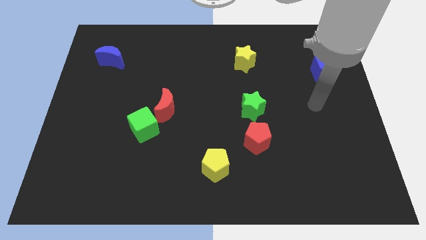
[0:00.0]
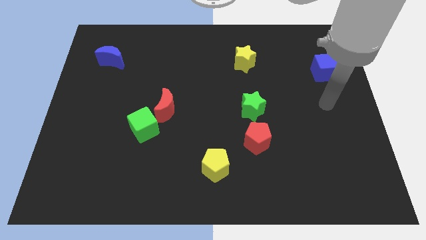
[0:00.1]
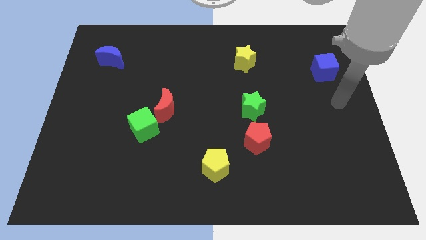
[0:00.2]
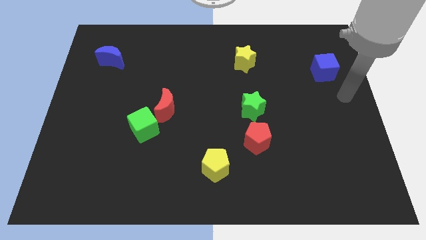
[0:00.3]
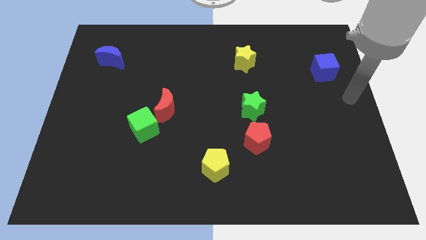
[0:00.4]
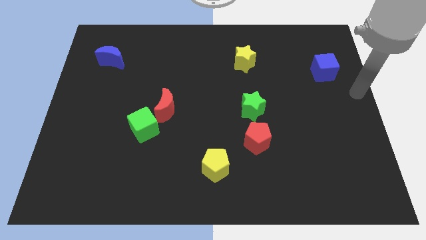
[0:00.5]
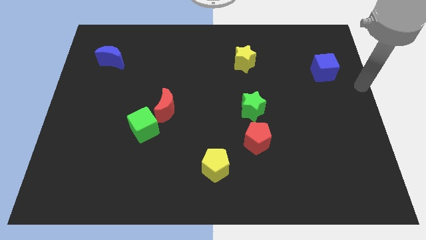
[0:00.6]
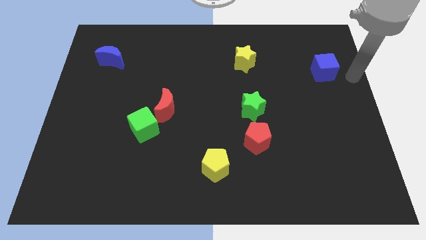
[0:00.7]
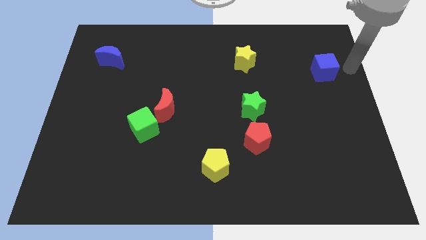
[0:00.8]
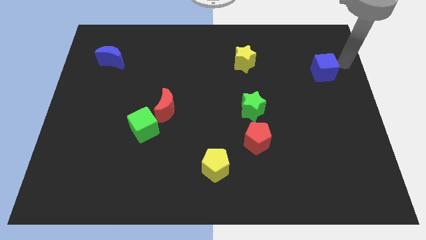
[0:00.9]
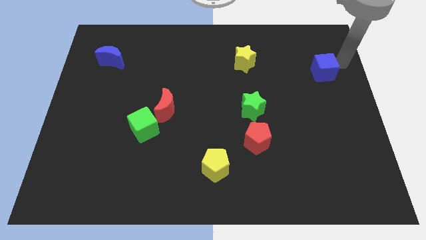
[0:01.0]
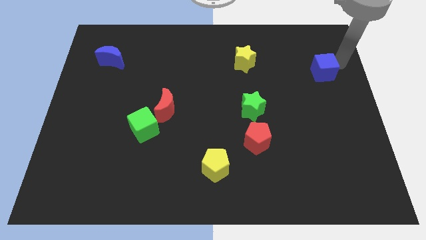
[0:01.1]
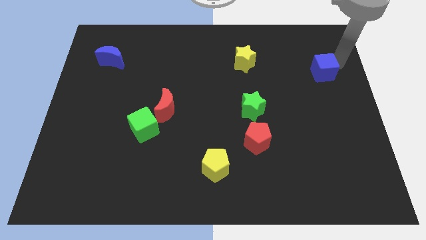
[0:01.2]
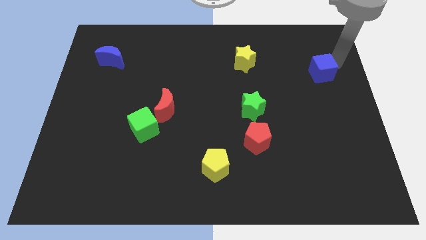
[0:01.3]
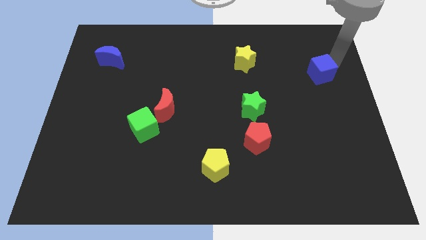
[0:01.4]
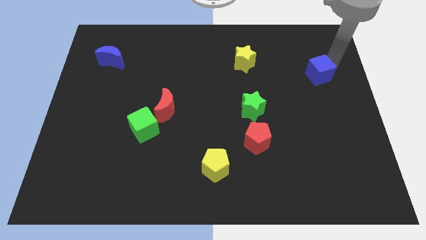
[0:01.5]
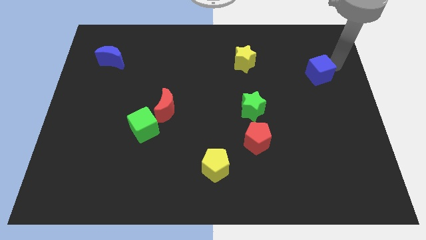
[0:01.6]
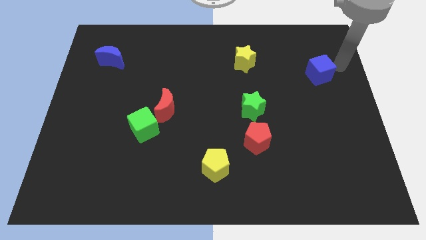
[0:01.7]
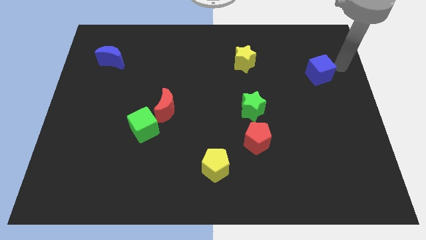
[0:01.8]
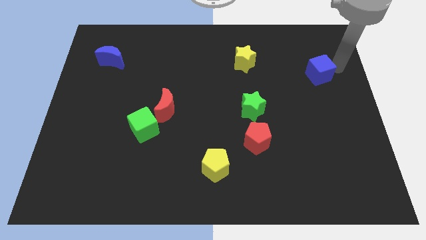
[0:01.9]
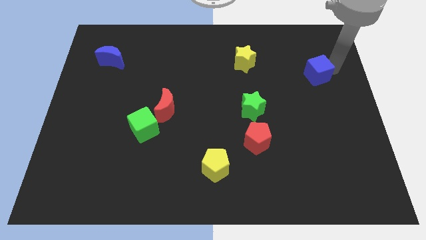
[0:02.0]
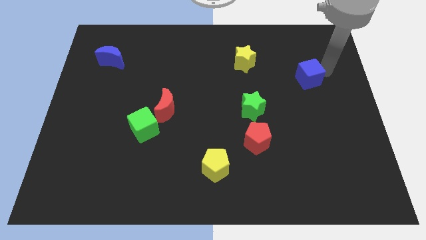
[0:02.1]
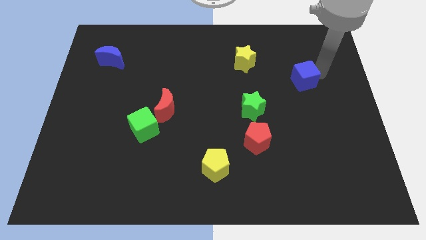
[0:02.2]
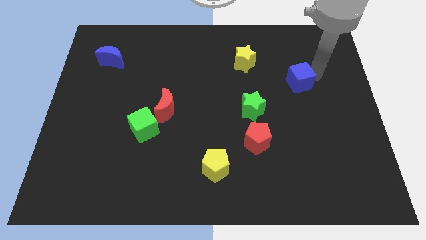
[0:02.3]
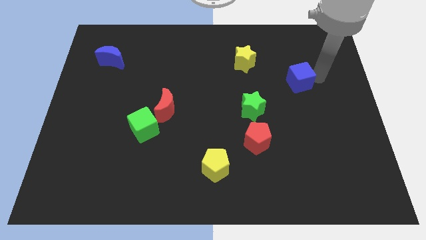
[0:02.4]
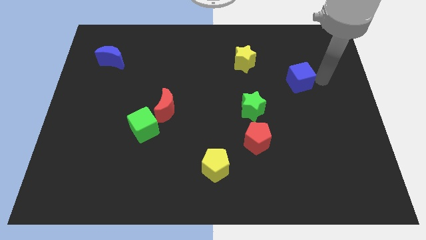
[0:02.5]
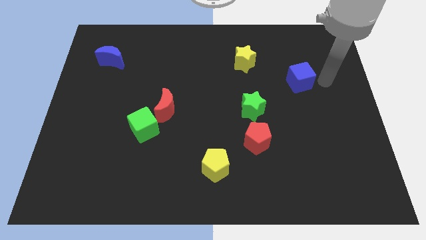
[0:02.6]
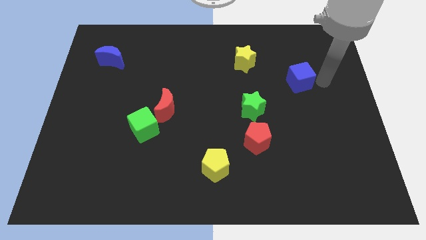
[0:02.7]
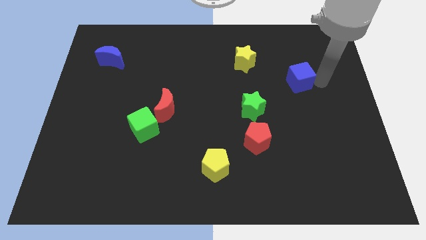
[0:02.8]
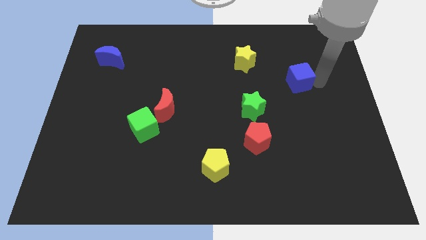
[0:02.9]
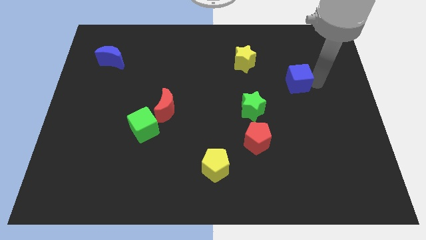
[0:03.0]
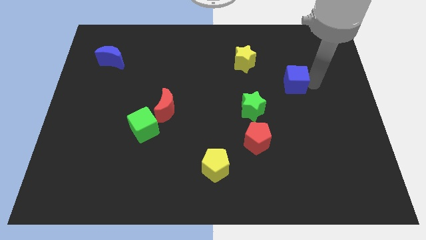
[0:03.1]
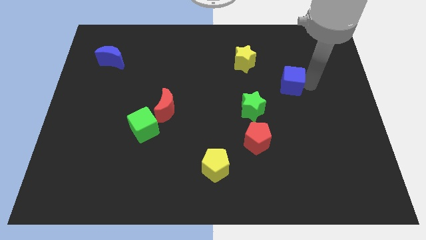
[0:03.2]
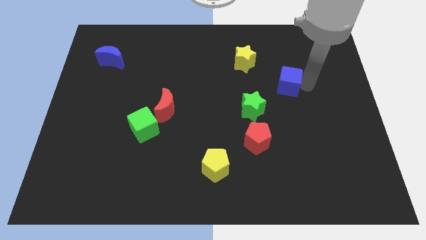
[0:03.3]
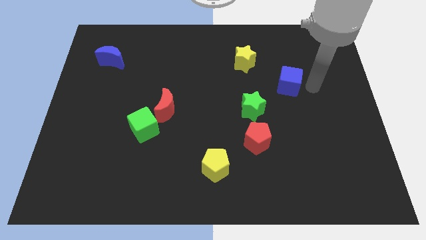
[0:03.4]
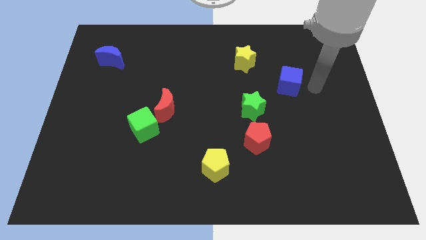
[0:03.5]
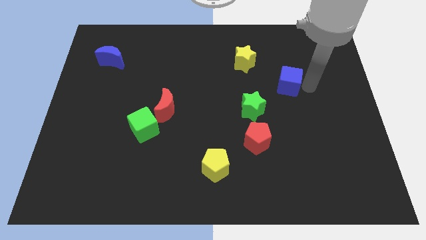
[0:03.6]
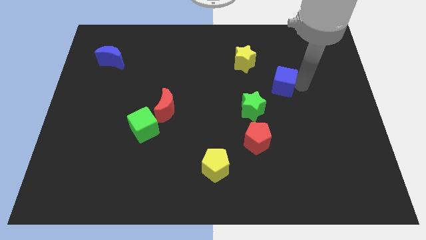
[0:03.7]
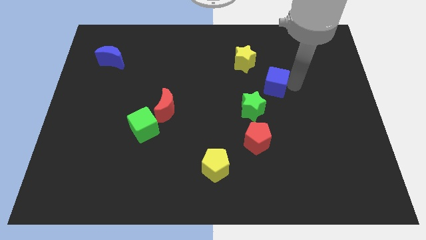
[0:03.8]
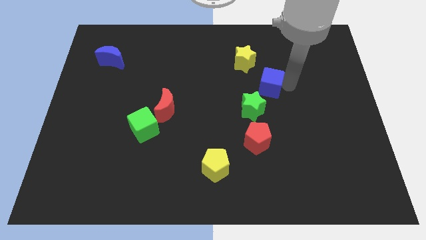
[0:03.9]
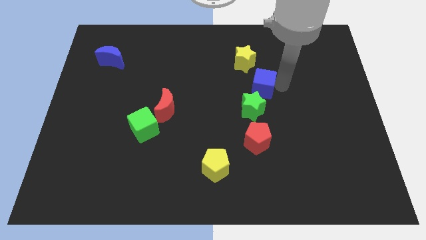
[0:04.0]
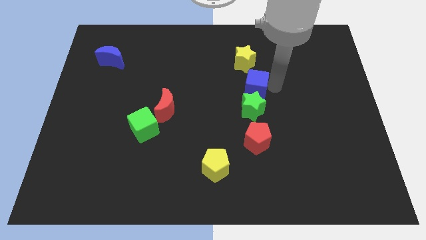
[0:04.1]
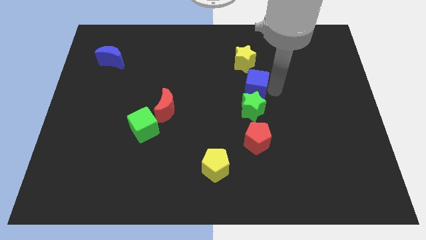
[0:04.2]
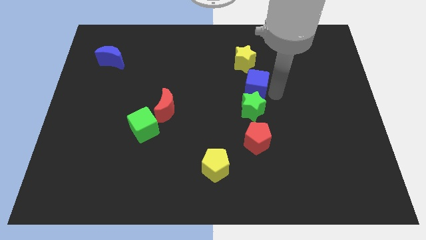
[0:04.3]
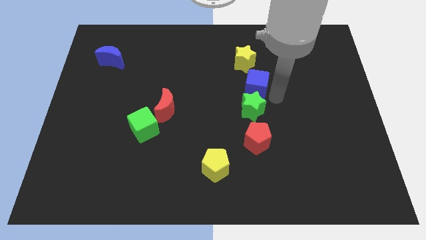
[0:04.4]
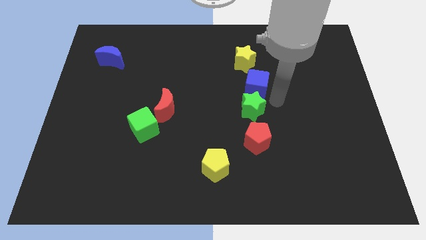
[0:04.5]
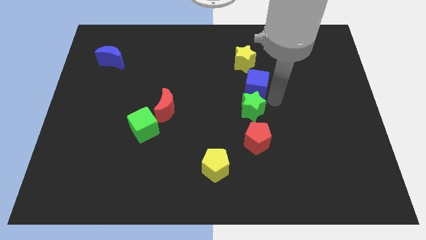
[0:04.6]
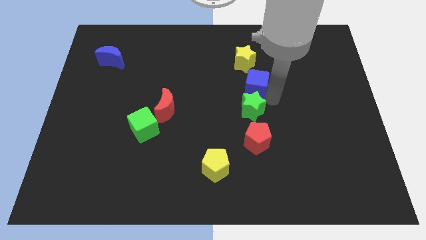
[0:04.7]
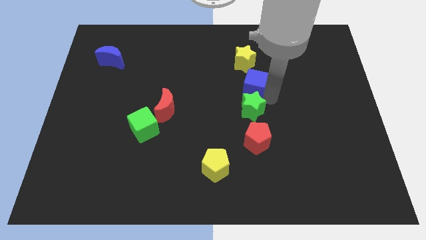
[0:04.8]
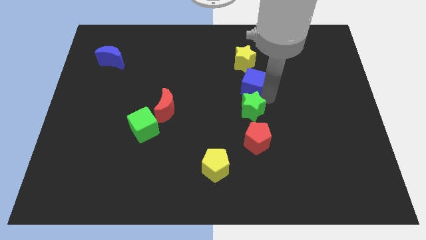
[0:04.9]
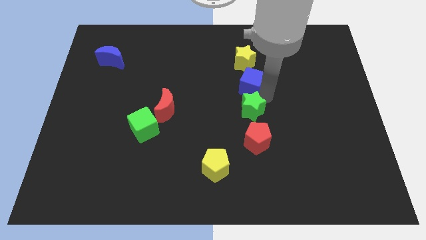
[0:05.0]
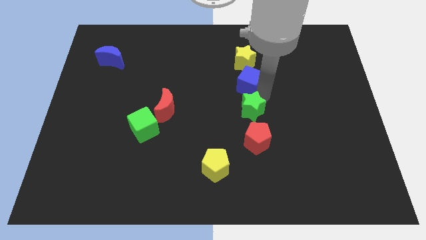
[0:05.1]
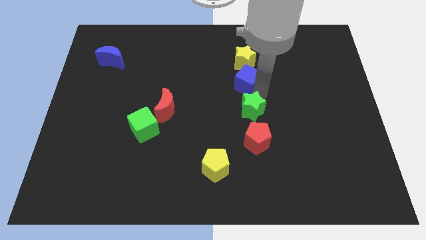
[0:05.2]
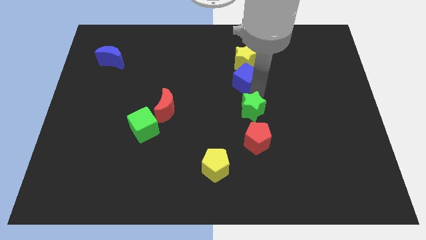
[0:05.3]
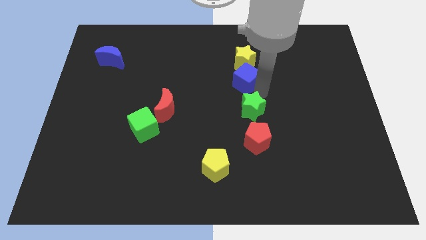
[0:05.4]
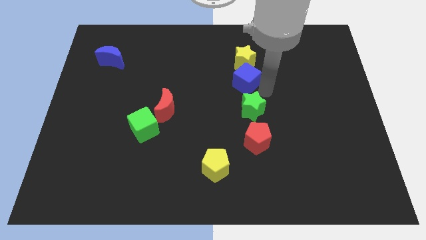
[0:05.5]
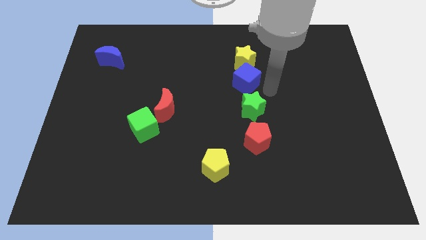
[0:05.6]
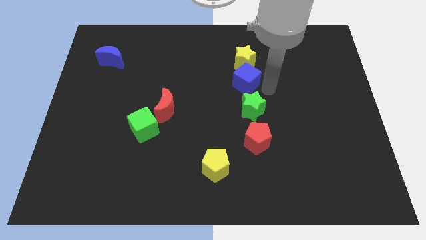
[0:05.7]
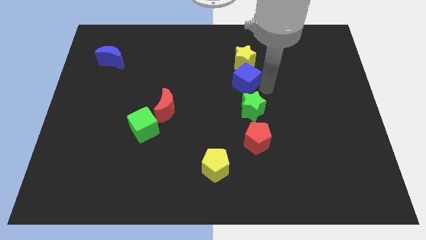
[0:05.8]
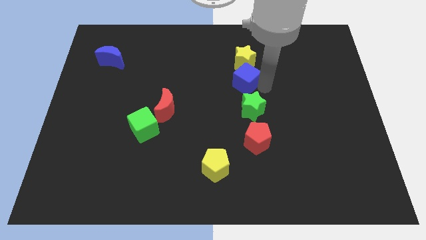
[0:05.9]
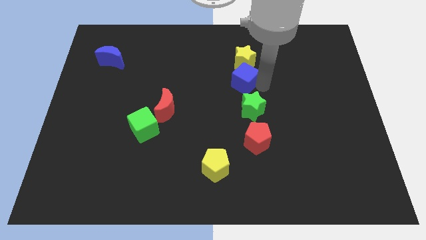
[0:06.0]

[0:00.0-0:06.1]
move the blue cube left

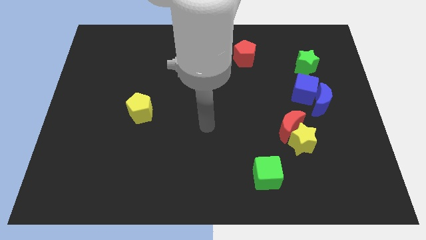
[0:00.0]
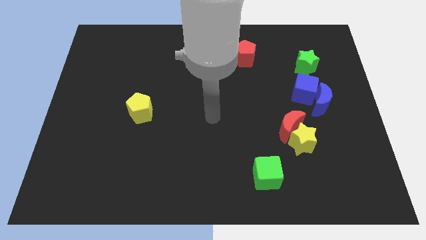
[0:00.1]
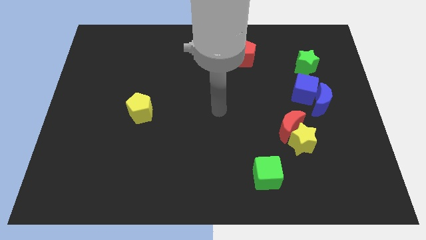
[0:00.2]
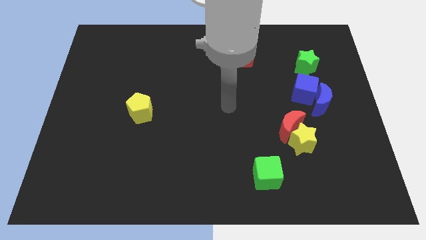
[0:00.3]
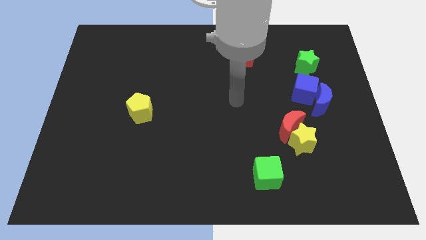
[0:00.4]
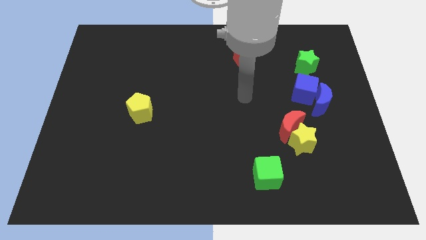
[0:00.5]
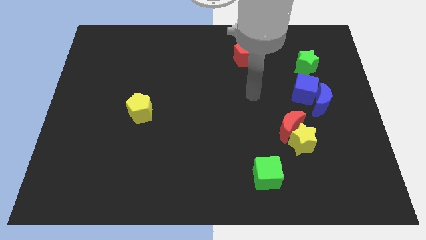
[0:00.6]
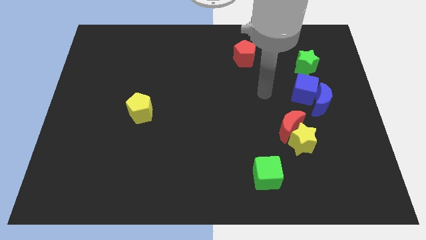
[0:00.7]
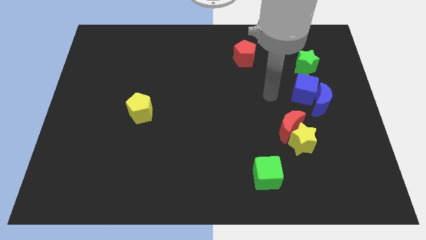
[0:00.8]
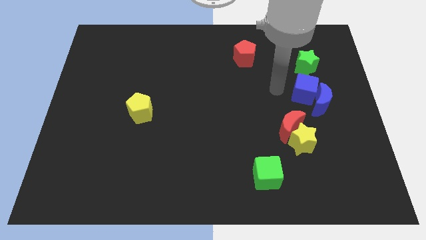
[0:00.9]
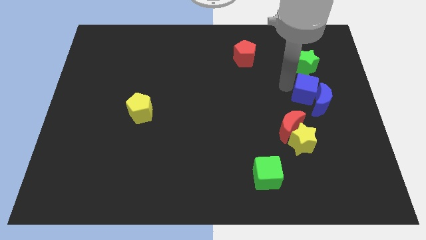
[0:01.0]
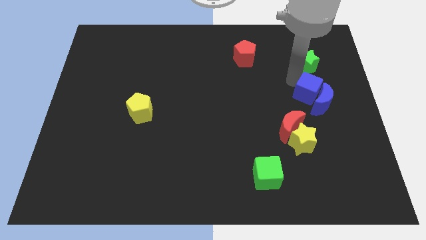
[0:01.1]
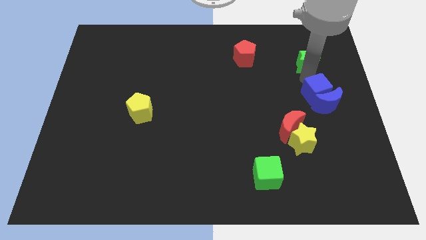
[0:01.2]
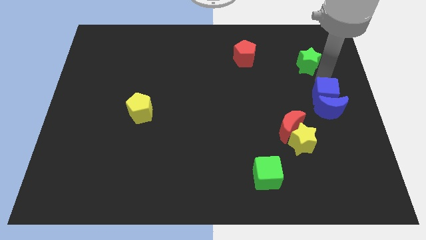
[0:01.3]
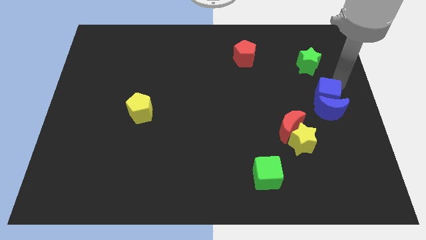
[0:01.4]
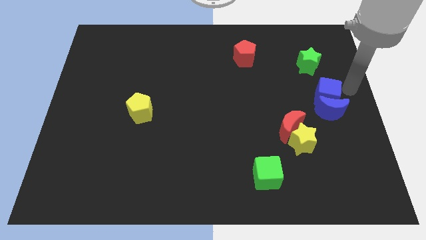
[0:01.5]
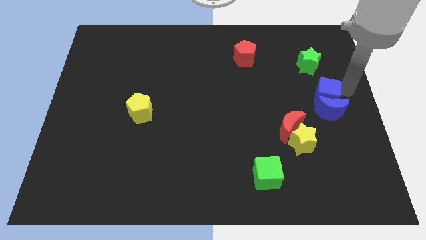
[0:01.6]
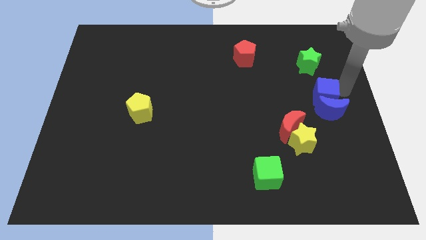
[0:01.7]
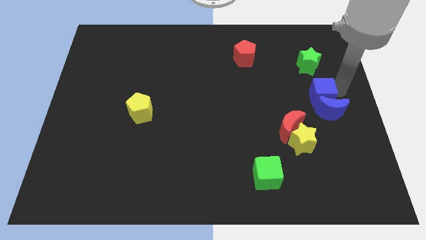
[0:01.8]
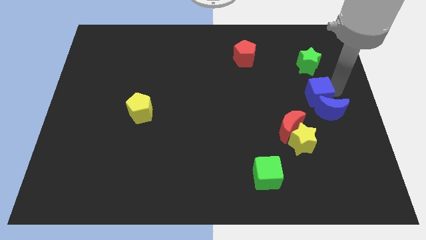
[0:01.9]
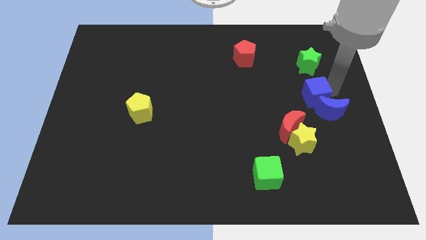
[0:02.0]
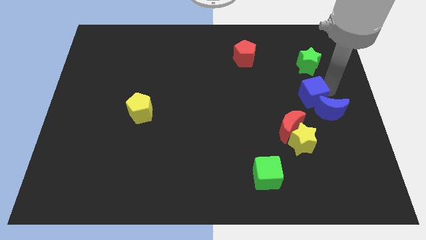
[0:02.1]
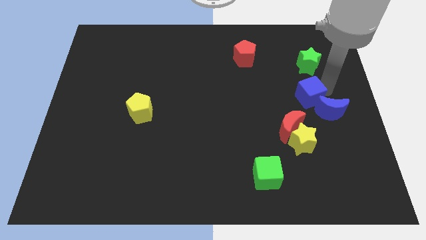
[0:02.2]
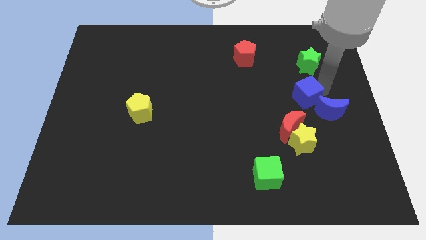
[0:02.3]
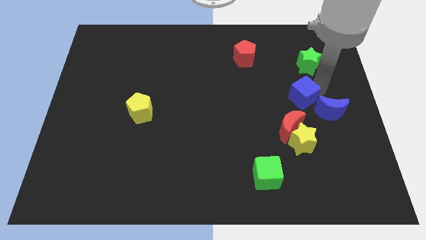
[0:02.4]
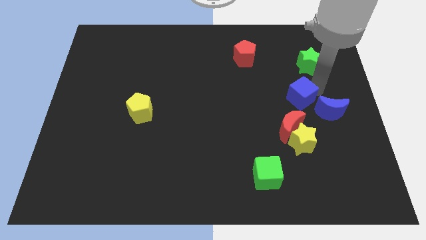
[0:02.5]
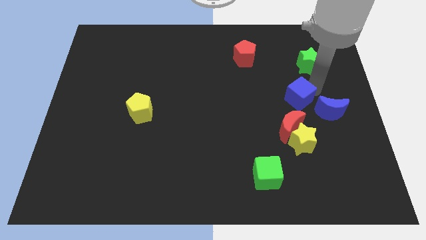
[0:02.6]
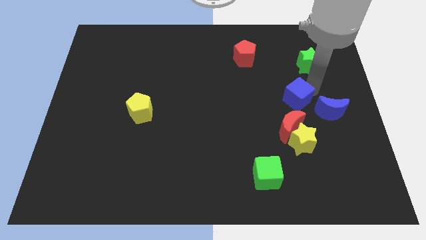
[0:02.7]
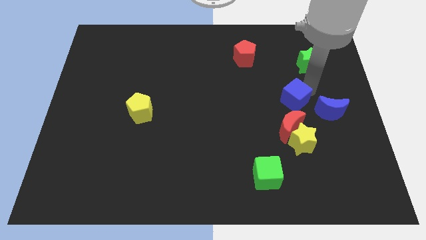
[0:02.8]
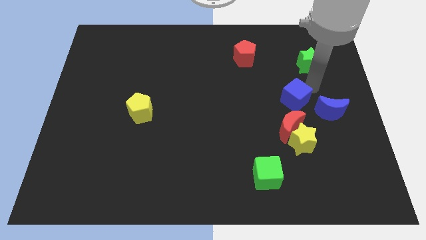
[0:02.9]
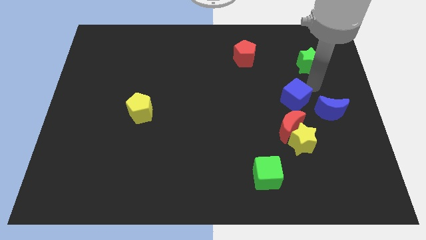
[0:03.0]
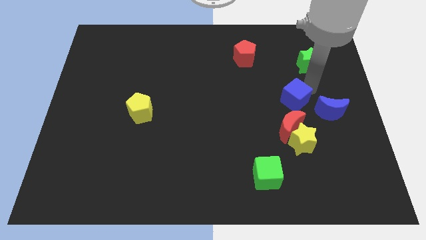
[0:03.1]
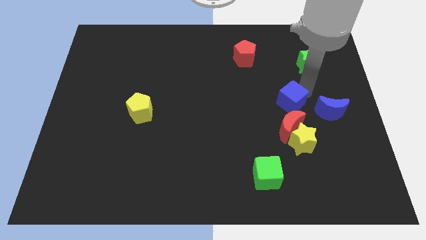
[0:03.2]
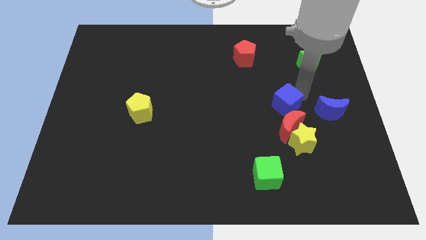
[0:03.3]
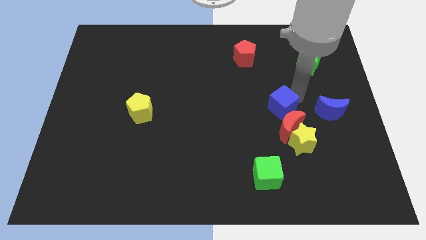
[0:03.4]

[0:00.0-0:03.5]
slightly push the blue cube diagonally downwards and left
